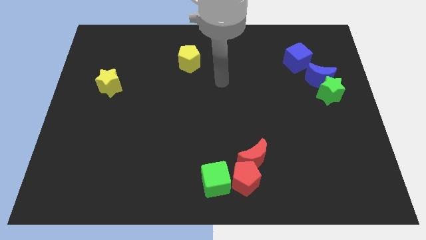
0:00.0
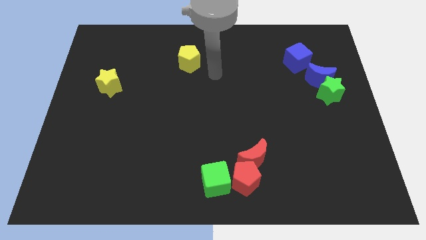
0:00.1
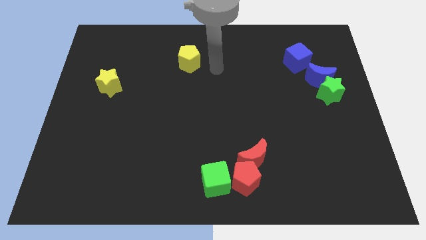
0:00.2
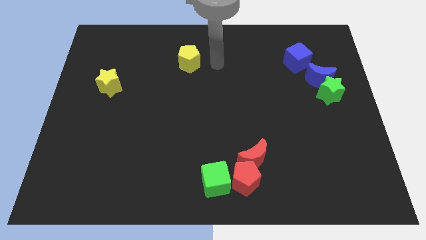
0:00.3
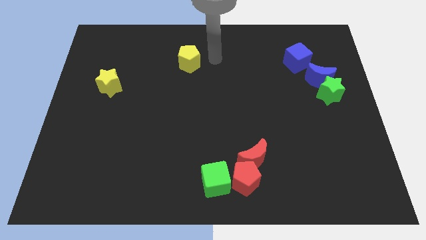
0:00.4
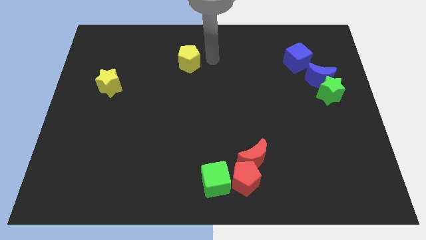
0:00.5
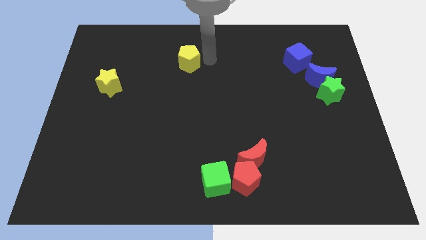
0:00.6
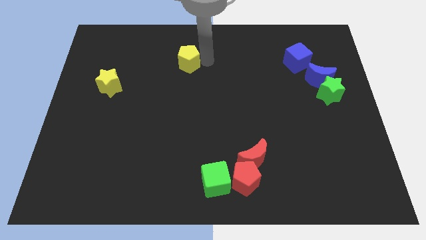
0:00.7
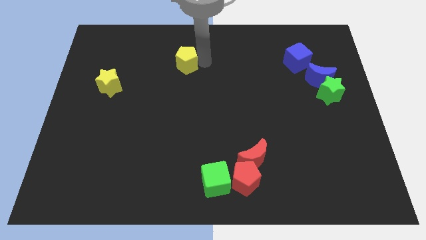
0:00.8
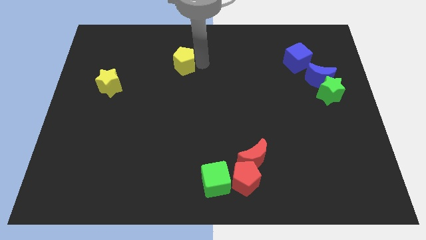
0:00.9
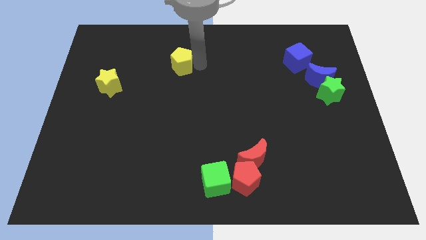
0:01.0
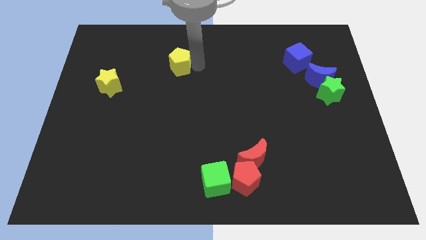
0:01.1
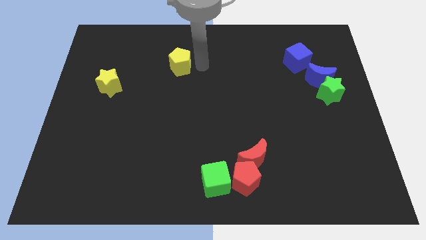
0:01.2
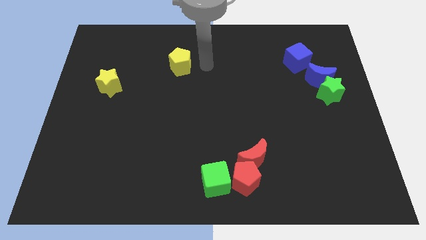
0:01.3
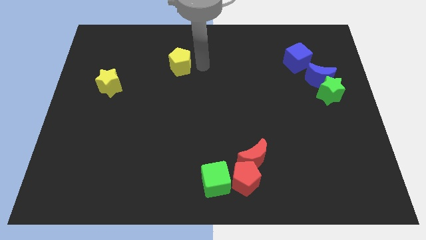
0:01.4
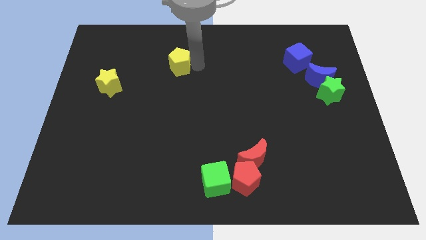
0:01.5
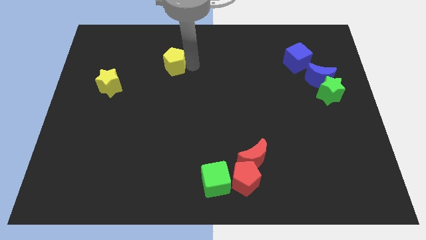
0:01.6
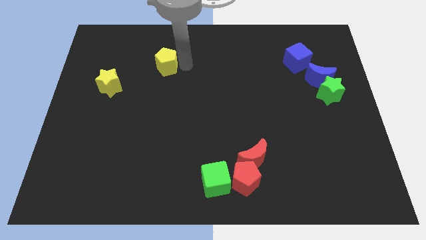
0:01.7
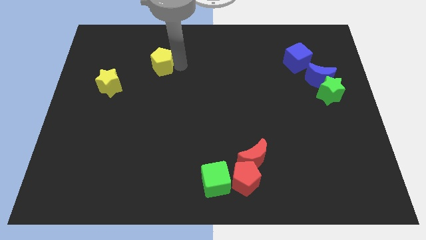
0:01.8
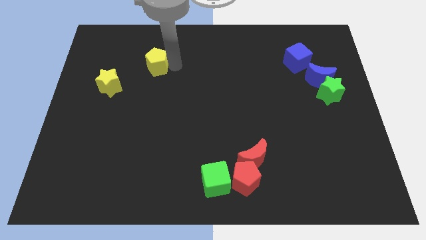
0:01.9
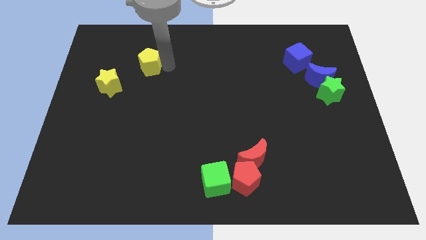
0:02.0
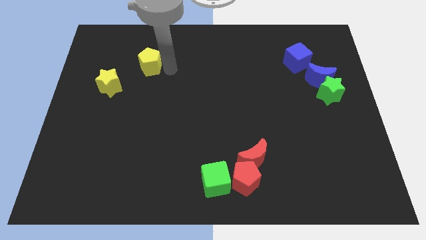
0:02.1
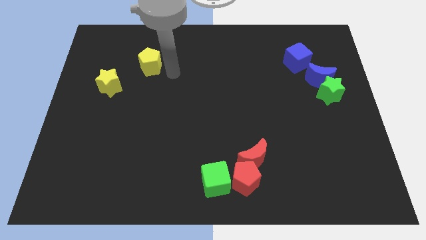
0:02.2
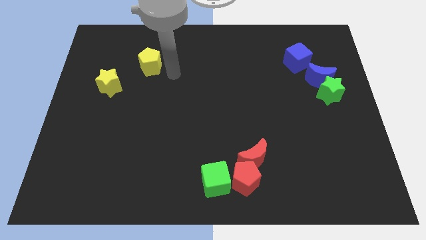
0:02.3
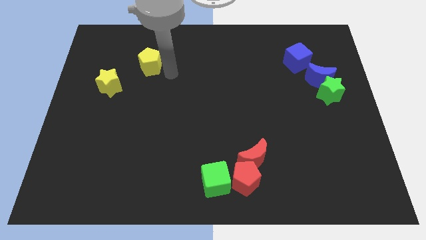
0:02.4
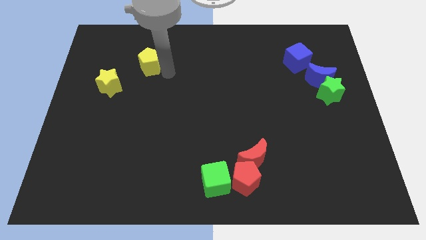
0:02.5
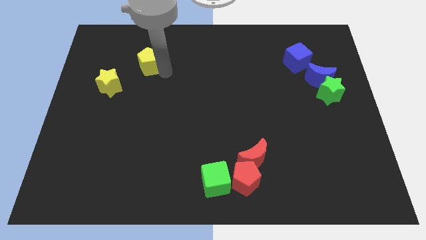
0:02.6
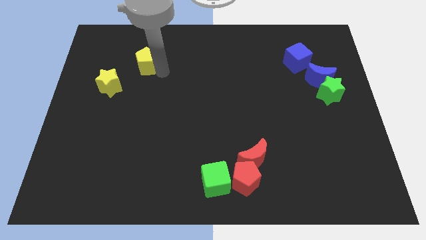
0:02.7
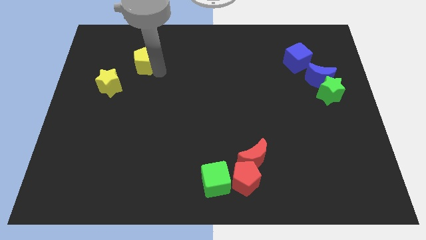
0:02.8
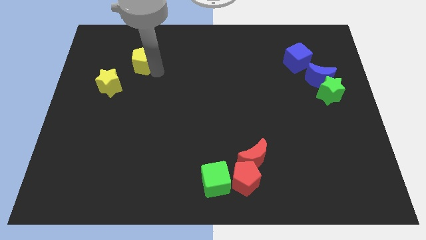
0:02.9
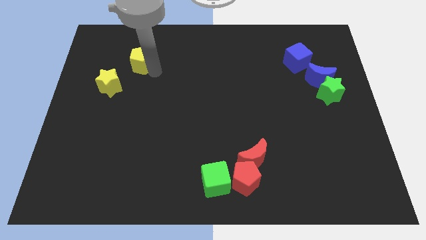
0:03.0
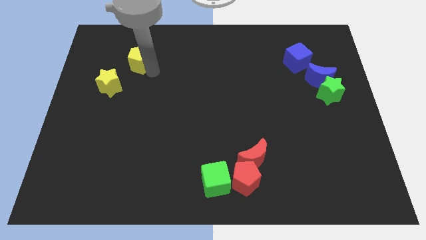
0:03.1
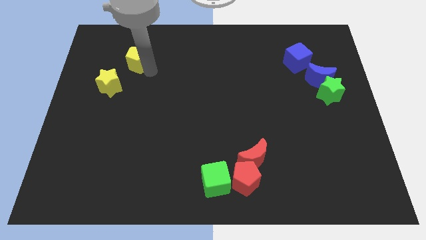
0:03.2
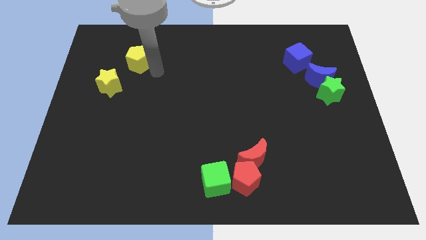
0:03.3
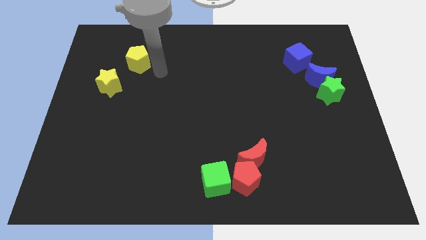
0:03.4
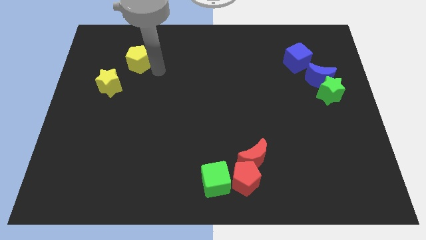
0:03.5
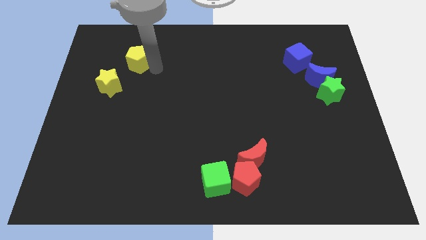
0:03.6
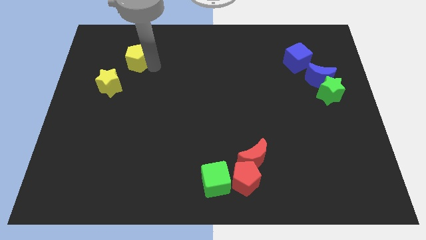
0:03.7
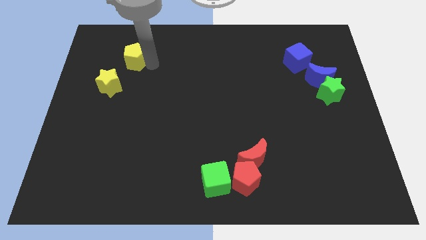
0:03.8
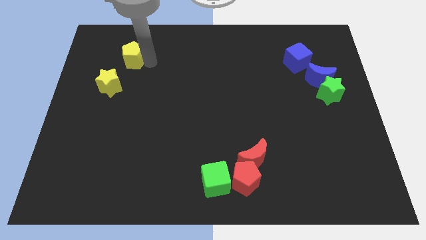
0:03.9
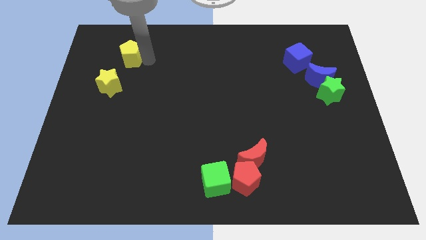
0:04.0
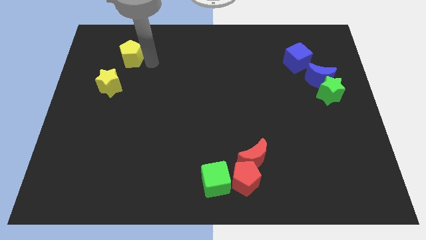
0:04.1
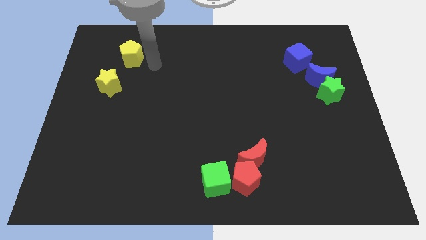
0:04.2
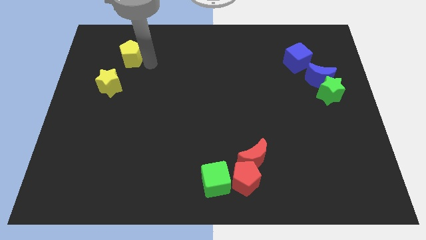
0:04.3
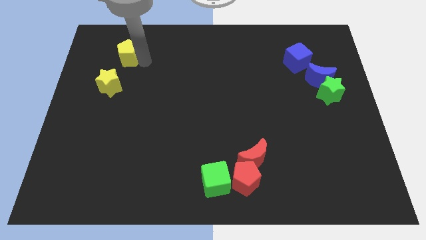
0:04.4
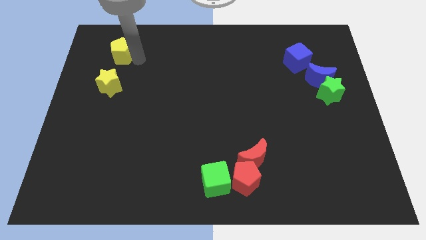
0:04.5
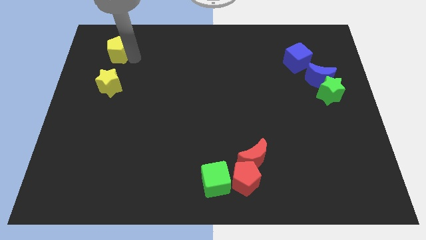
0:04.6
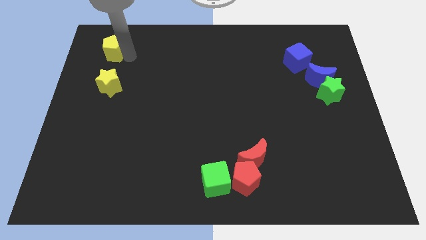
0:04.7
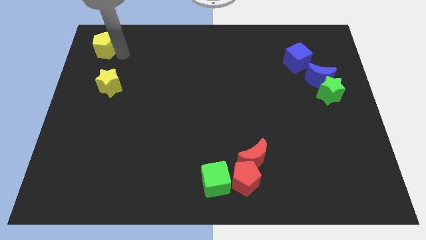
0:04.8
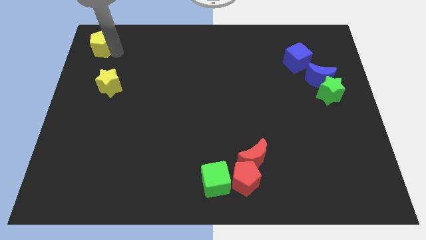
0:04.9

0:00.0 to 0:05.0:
put the yellow pentagon to the top left of the board

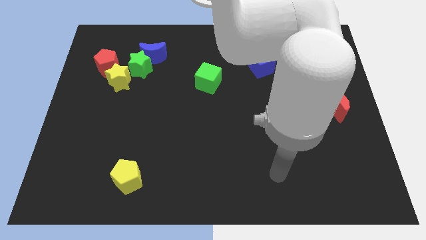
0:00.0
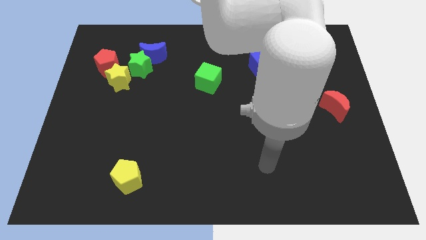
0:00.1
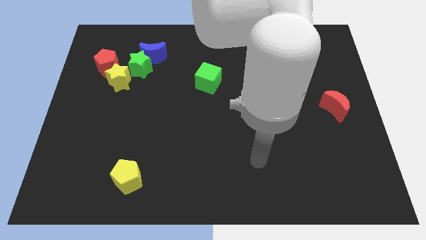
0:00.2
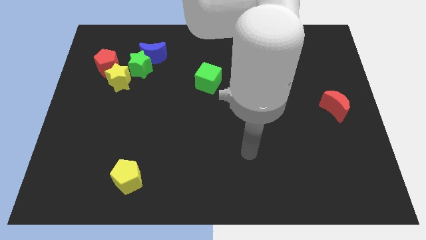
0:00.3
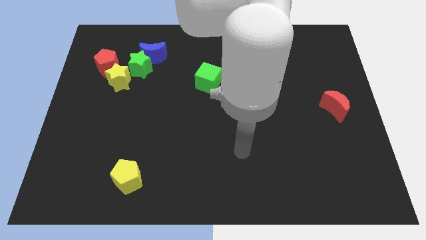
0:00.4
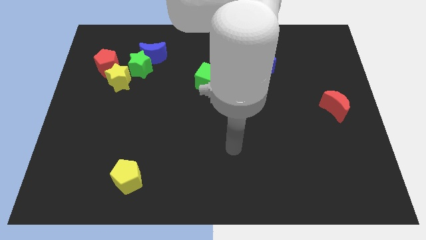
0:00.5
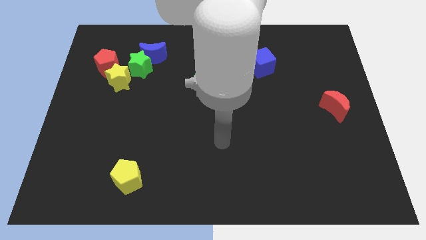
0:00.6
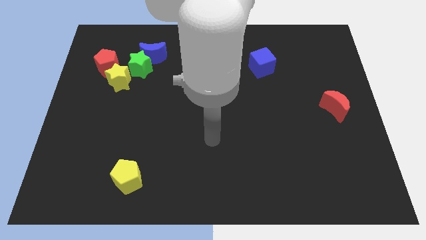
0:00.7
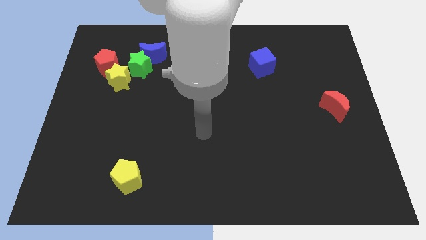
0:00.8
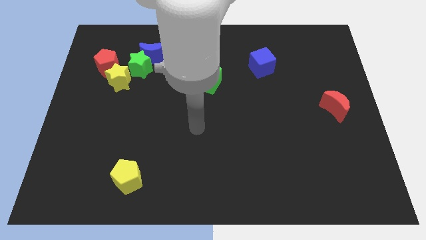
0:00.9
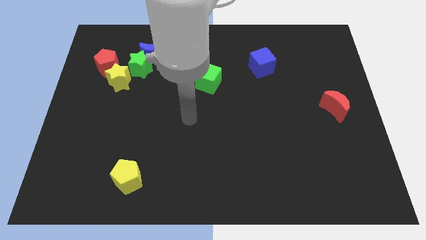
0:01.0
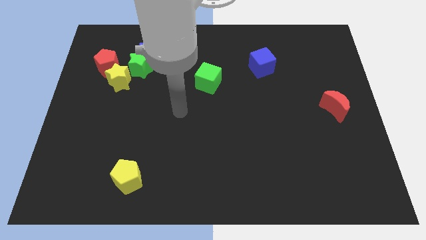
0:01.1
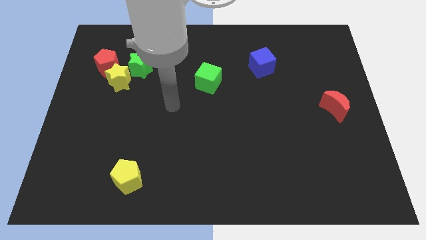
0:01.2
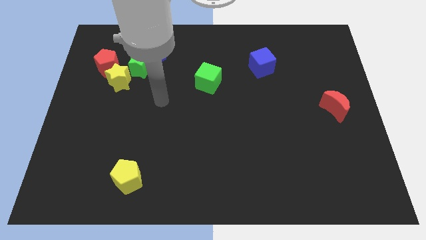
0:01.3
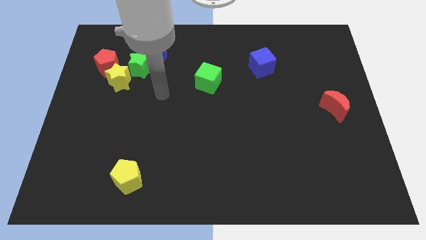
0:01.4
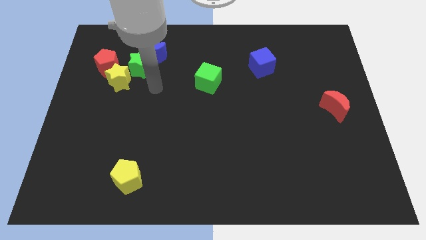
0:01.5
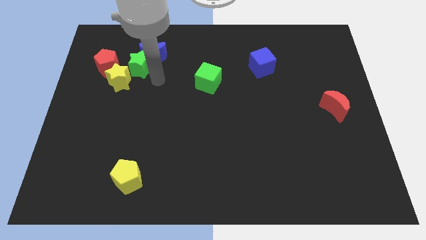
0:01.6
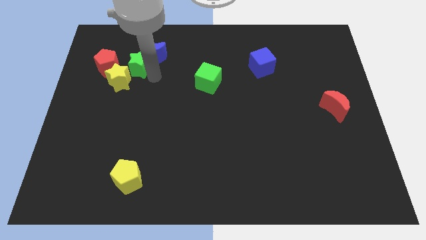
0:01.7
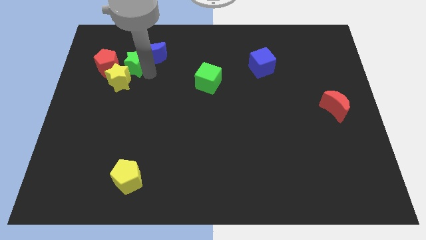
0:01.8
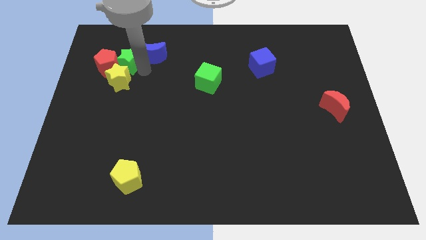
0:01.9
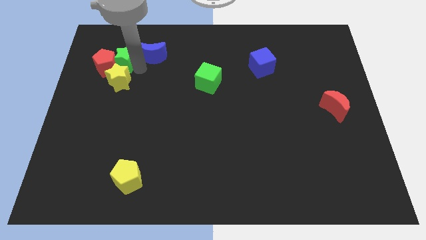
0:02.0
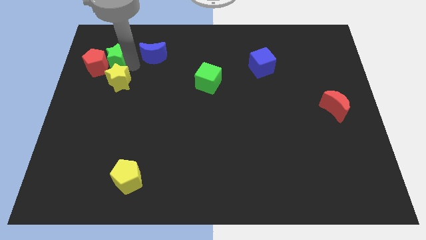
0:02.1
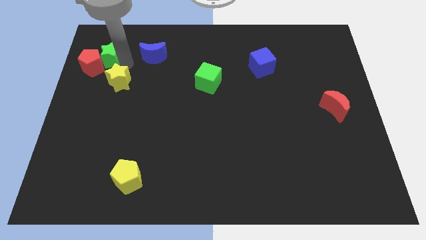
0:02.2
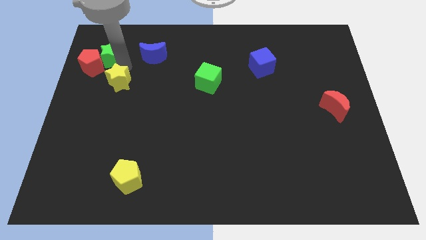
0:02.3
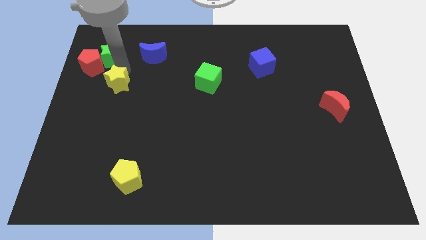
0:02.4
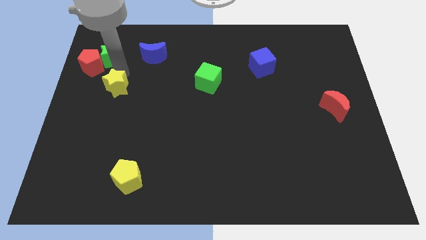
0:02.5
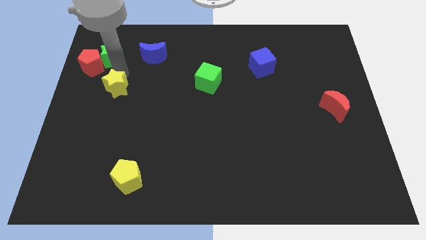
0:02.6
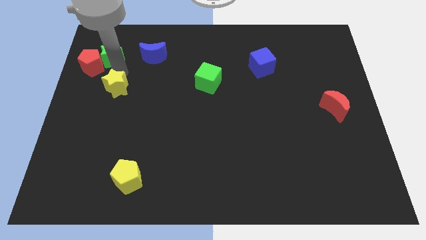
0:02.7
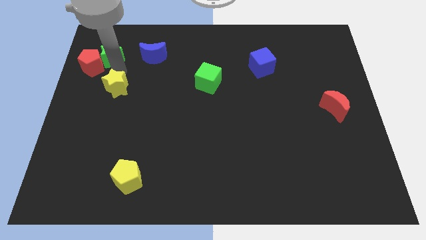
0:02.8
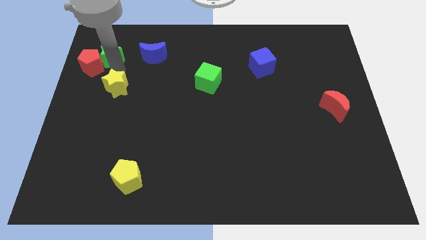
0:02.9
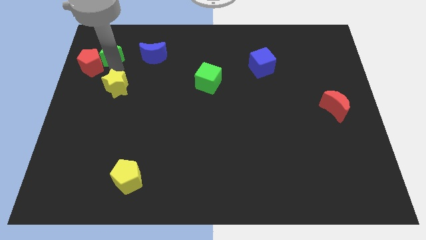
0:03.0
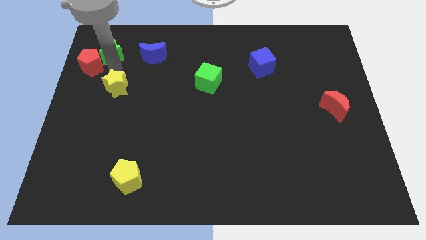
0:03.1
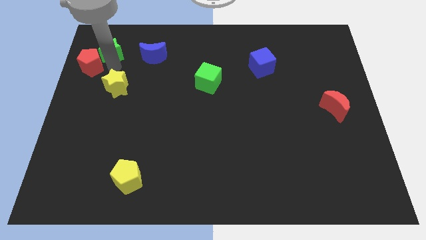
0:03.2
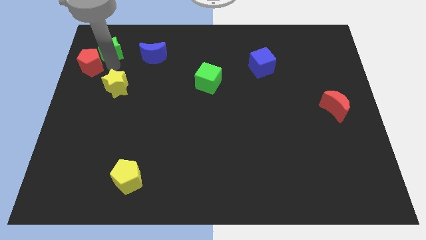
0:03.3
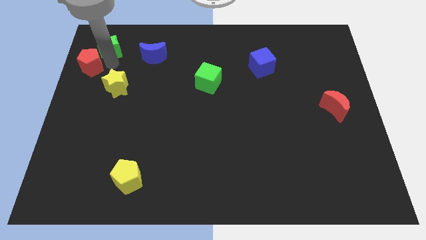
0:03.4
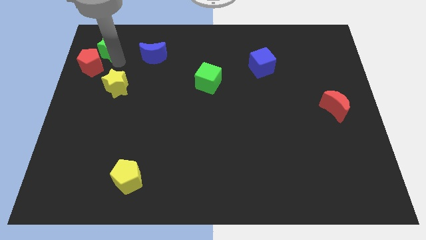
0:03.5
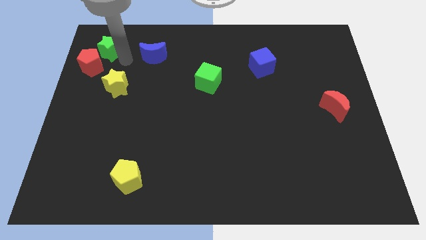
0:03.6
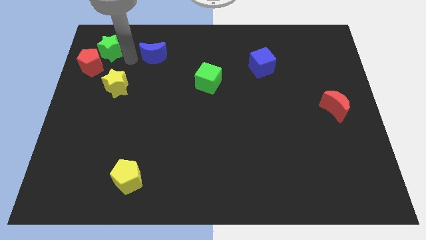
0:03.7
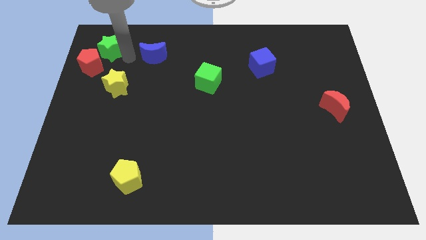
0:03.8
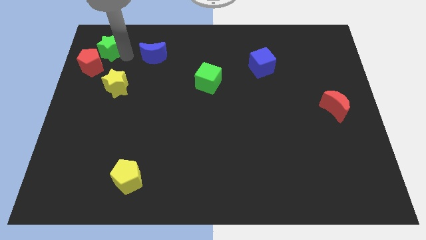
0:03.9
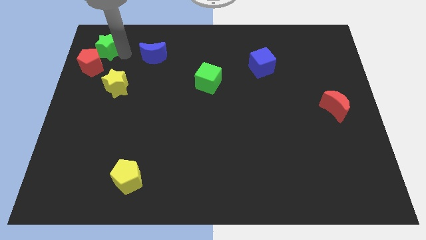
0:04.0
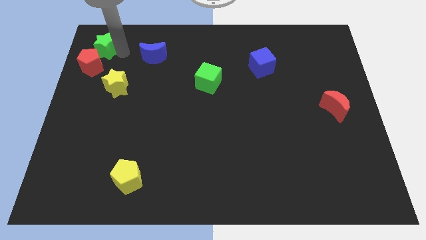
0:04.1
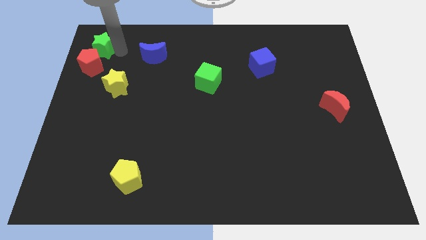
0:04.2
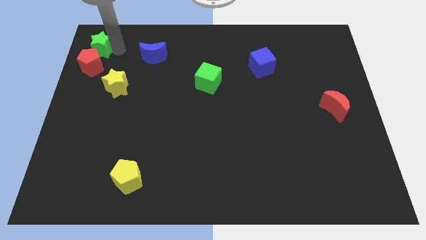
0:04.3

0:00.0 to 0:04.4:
push the green star to the top left of the board
